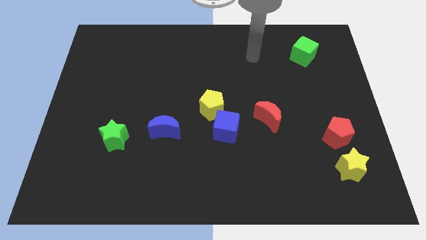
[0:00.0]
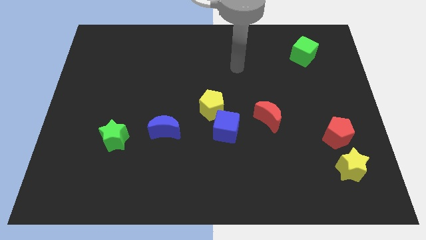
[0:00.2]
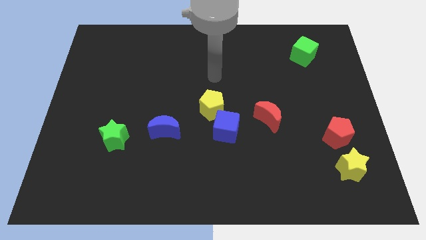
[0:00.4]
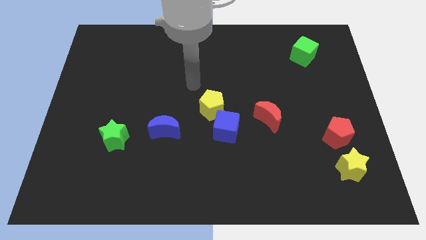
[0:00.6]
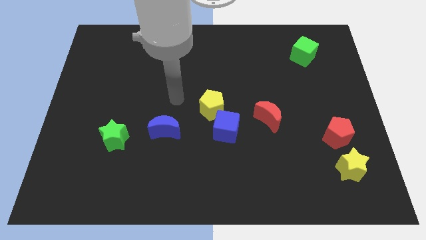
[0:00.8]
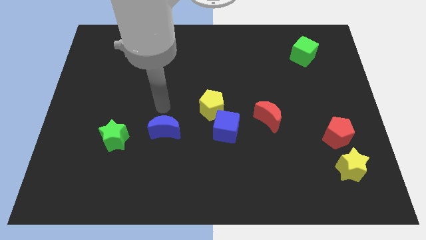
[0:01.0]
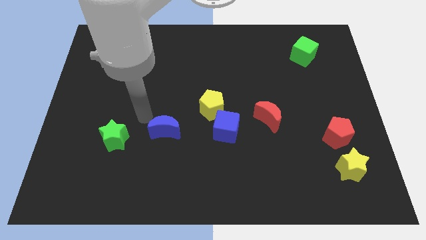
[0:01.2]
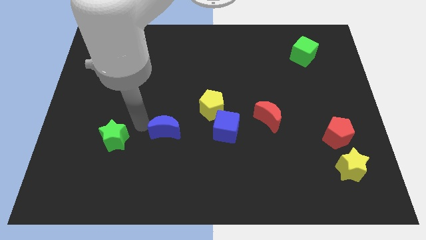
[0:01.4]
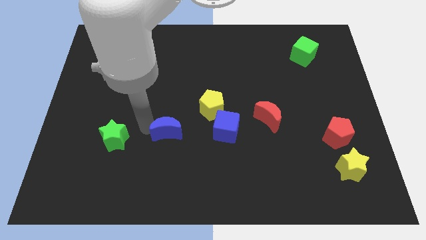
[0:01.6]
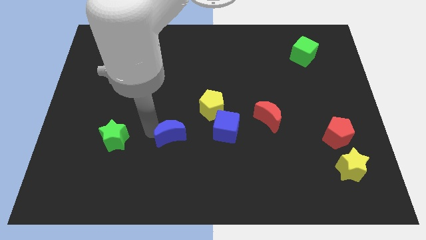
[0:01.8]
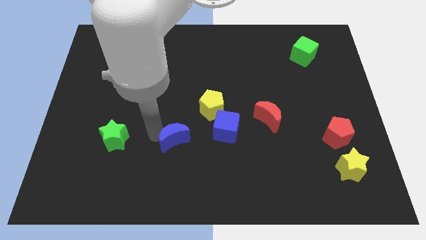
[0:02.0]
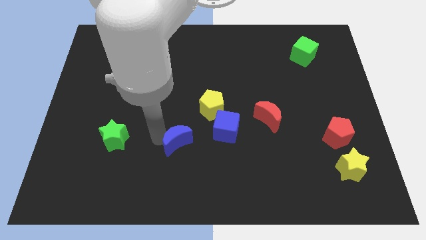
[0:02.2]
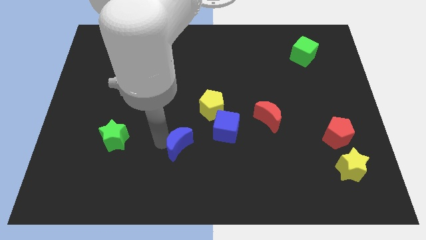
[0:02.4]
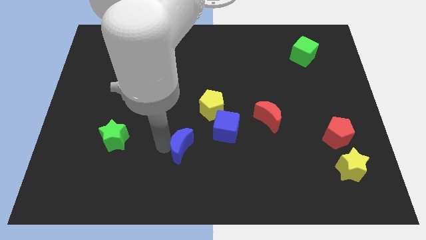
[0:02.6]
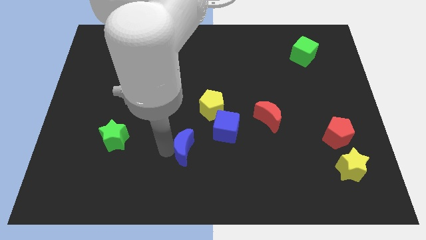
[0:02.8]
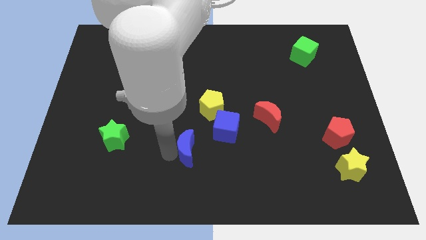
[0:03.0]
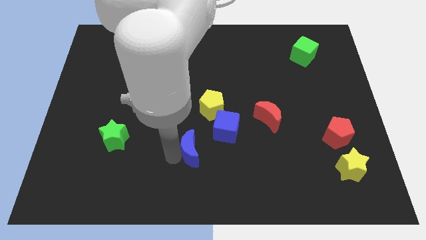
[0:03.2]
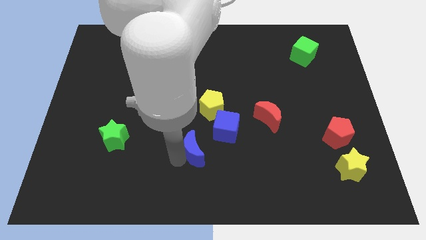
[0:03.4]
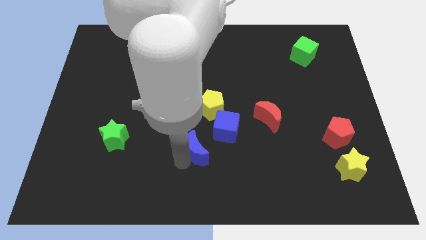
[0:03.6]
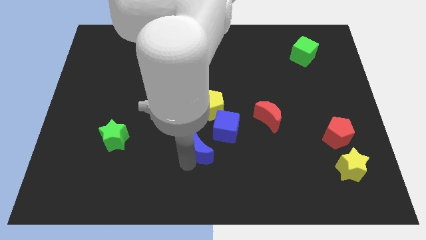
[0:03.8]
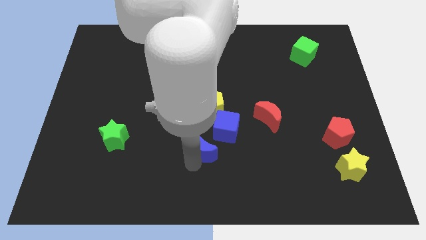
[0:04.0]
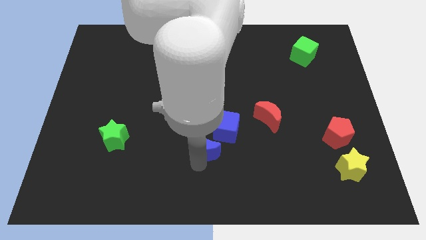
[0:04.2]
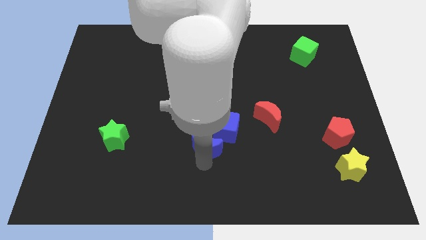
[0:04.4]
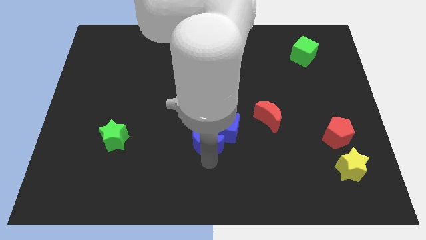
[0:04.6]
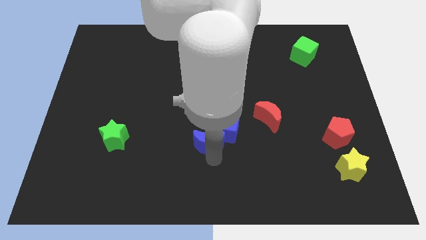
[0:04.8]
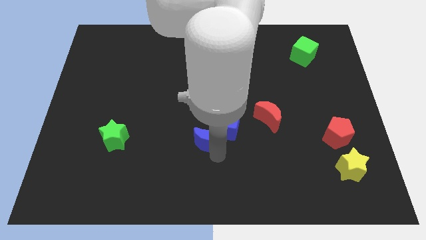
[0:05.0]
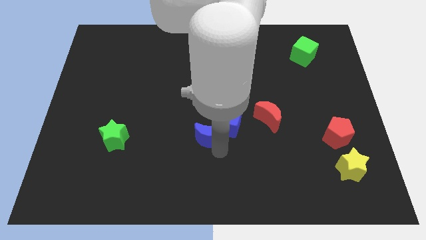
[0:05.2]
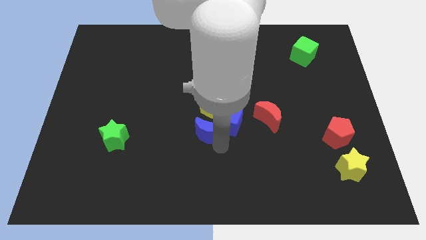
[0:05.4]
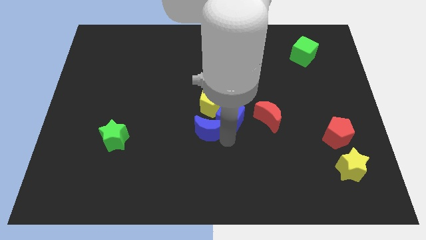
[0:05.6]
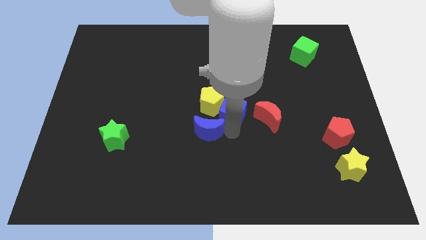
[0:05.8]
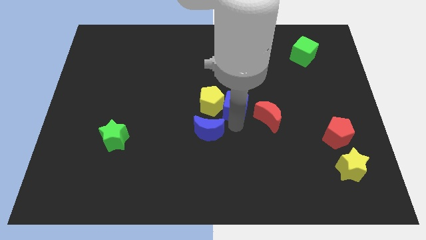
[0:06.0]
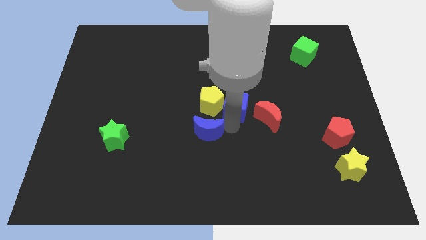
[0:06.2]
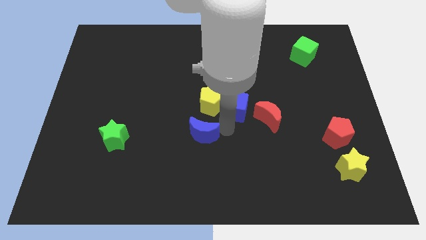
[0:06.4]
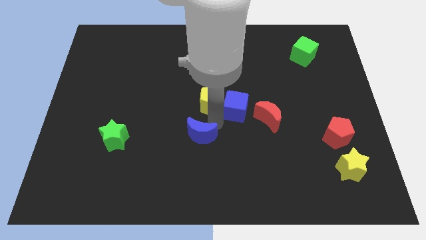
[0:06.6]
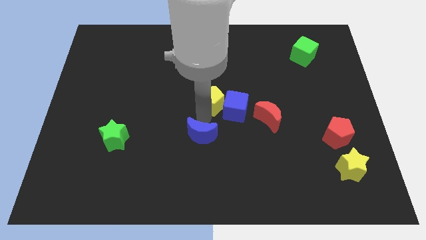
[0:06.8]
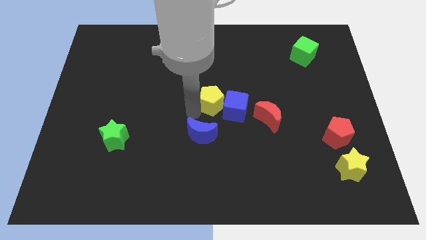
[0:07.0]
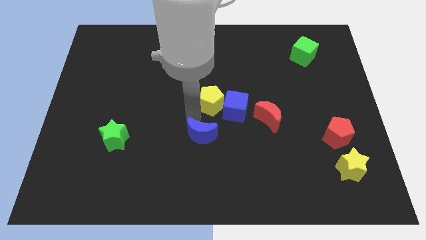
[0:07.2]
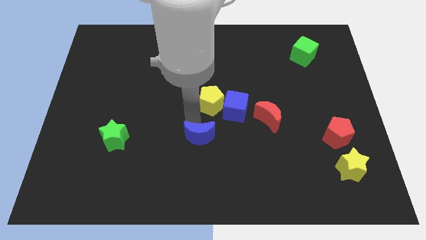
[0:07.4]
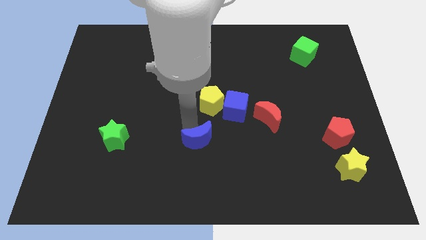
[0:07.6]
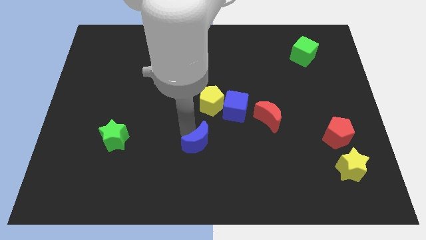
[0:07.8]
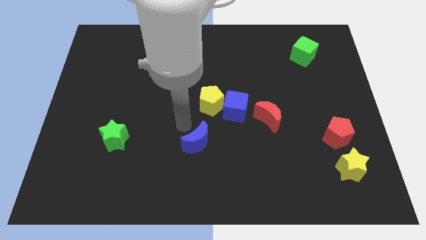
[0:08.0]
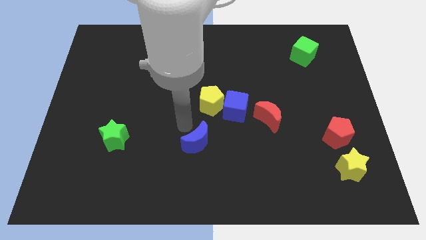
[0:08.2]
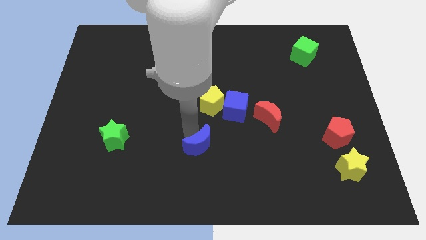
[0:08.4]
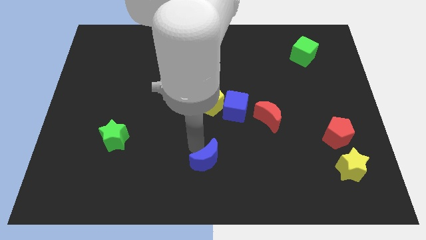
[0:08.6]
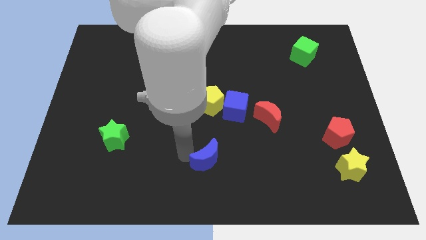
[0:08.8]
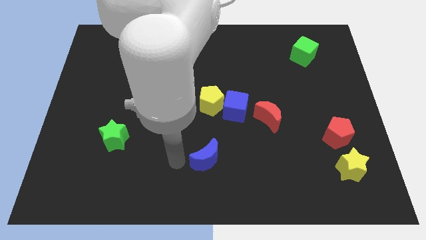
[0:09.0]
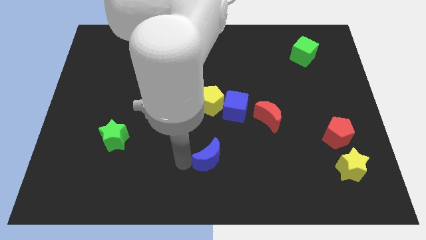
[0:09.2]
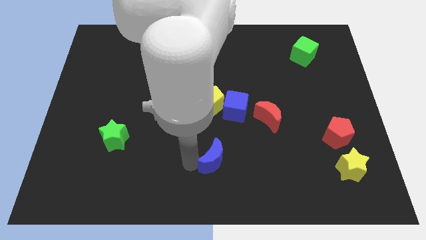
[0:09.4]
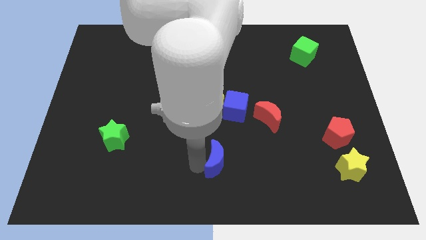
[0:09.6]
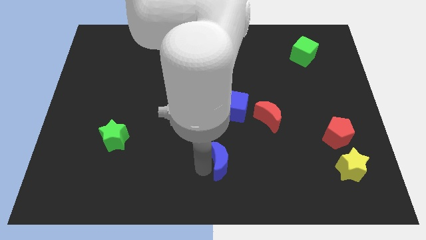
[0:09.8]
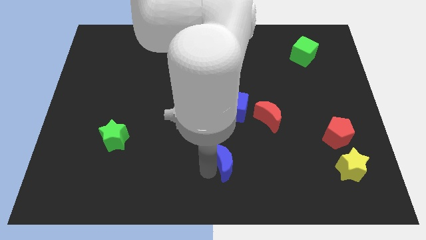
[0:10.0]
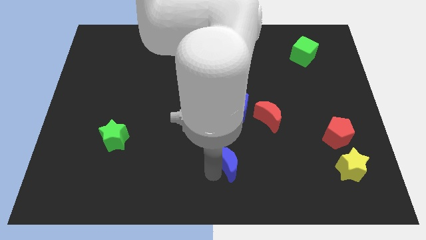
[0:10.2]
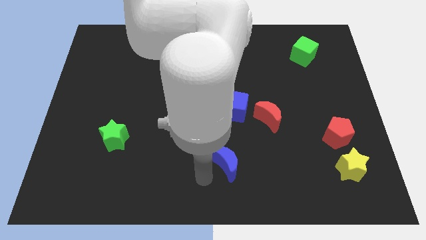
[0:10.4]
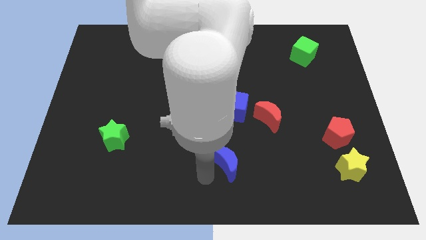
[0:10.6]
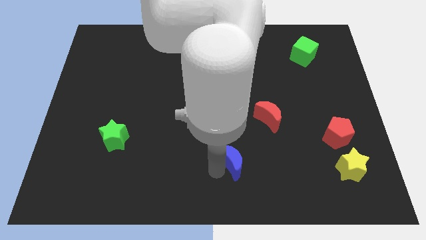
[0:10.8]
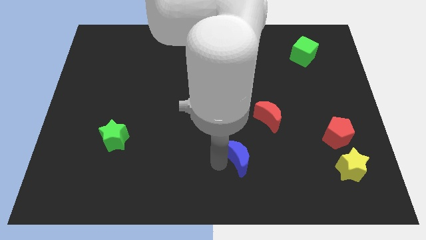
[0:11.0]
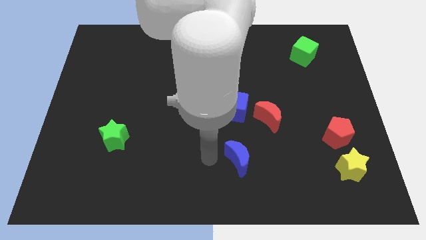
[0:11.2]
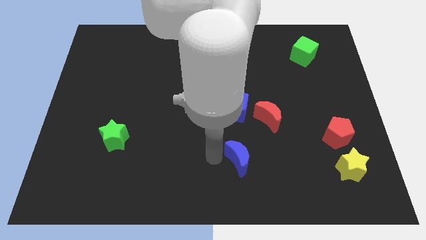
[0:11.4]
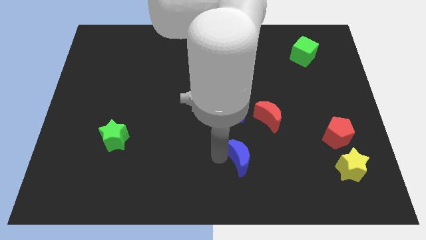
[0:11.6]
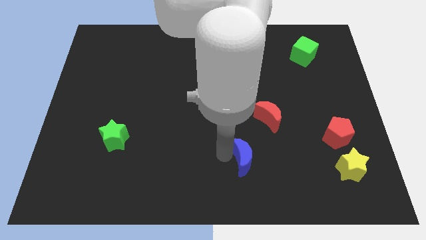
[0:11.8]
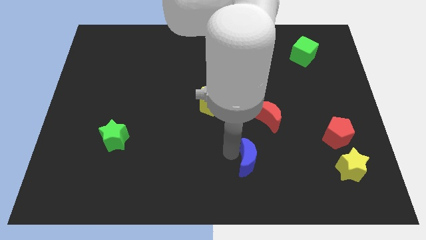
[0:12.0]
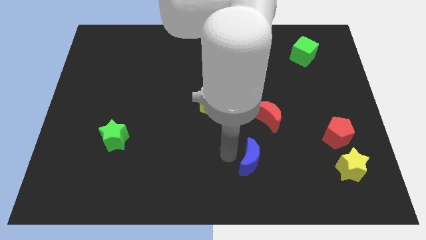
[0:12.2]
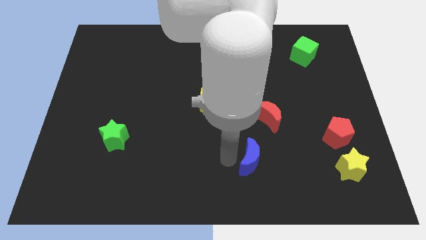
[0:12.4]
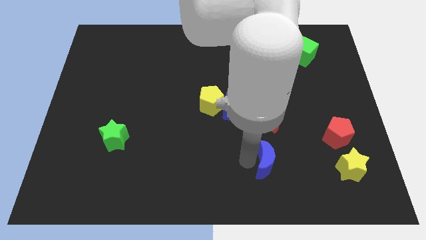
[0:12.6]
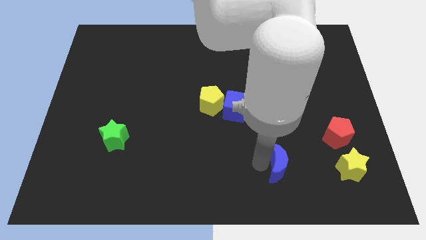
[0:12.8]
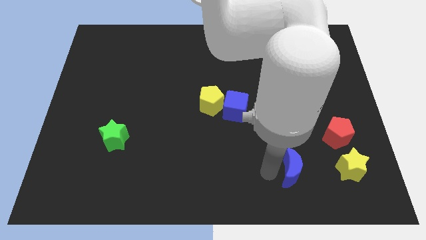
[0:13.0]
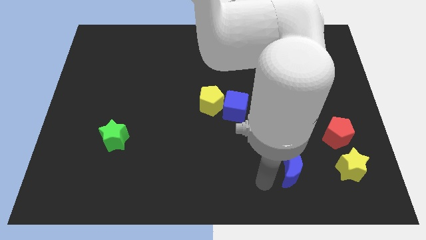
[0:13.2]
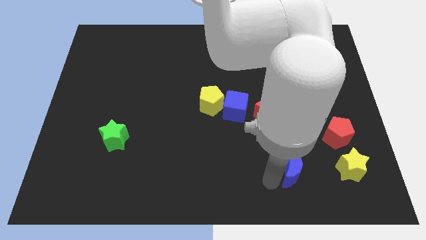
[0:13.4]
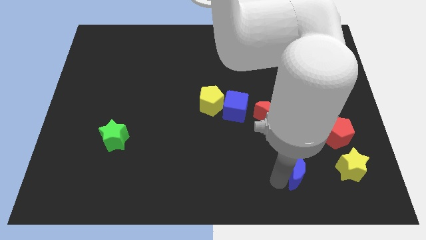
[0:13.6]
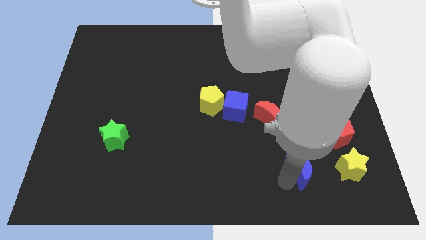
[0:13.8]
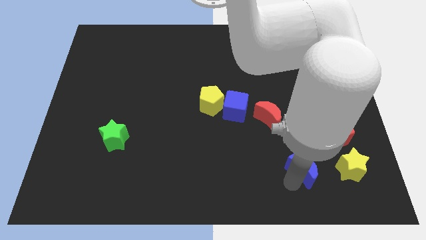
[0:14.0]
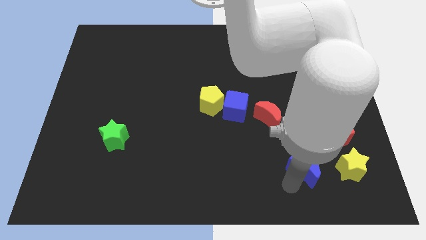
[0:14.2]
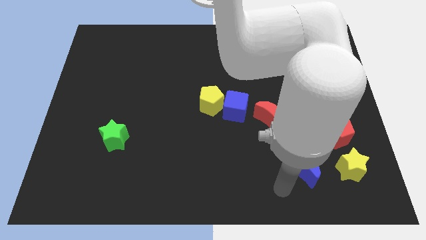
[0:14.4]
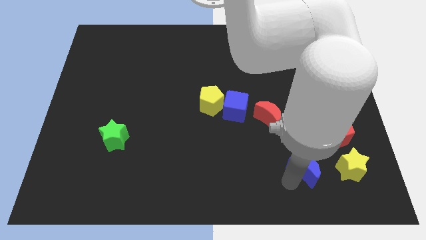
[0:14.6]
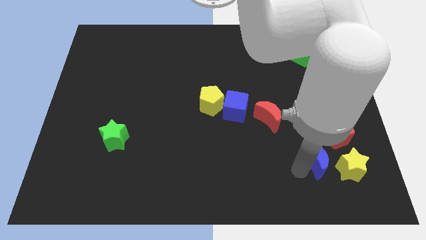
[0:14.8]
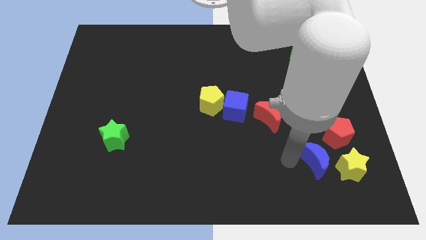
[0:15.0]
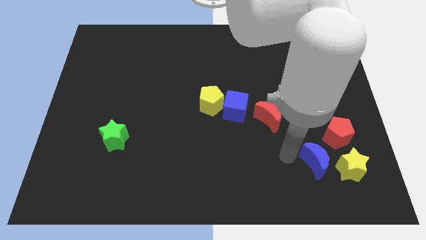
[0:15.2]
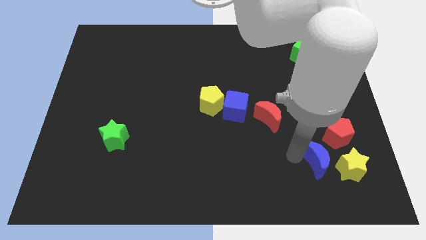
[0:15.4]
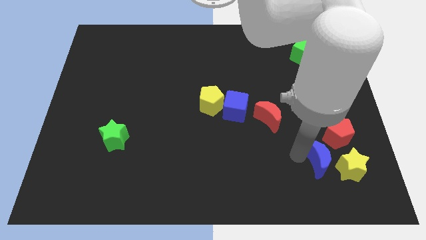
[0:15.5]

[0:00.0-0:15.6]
put the blue moon towards the yellow star
